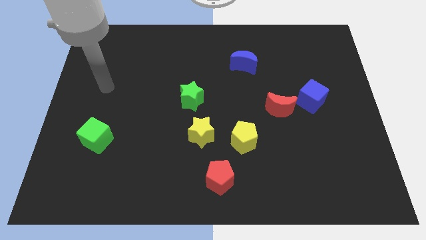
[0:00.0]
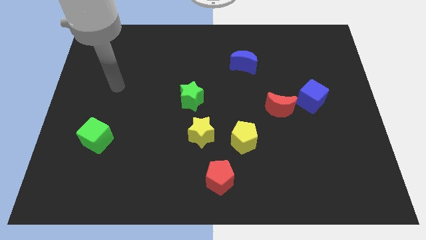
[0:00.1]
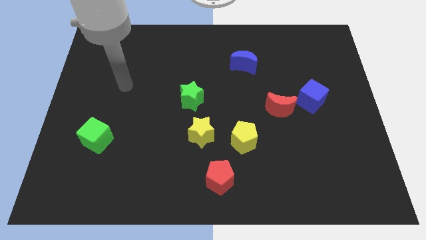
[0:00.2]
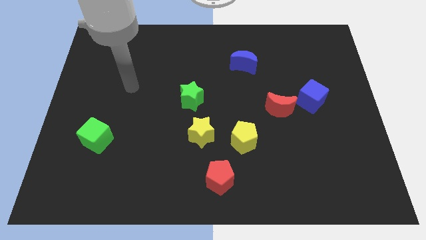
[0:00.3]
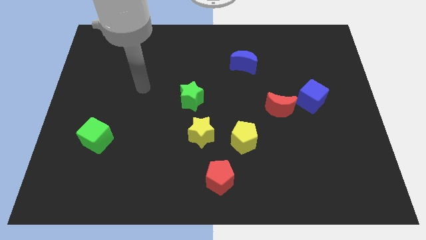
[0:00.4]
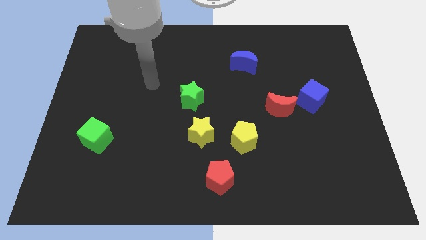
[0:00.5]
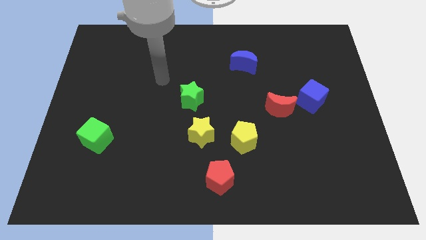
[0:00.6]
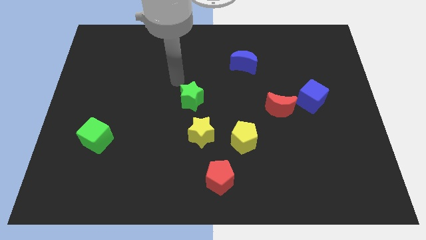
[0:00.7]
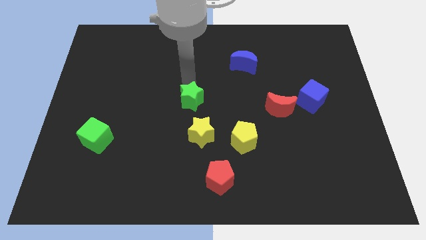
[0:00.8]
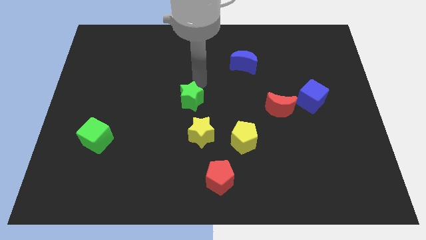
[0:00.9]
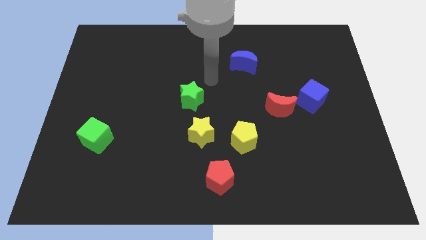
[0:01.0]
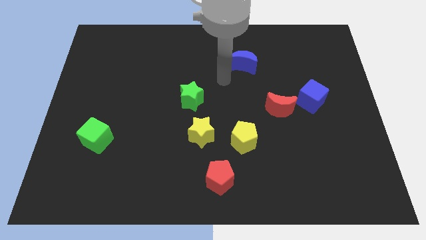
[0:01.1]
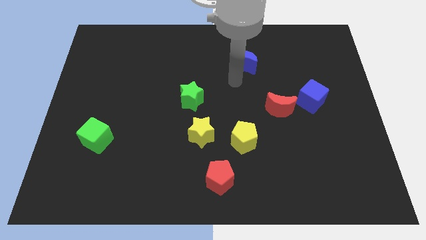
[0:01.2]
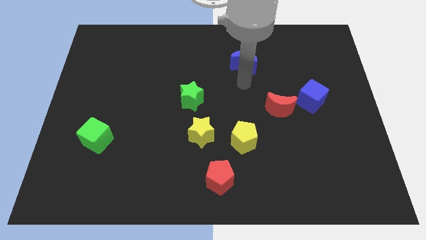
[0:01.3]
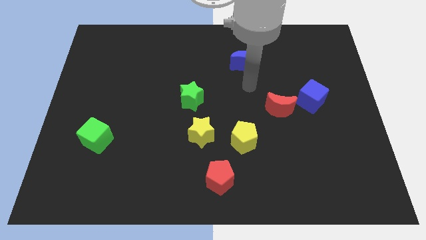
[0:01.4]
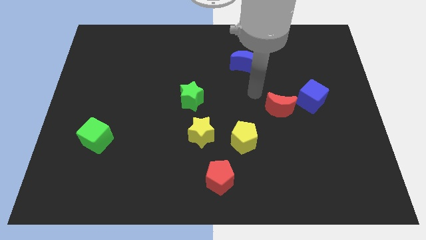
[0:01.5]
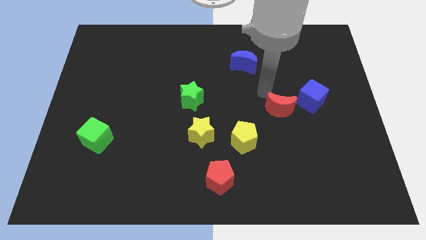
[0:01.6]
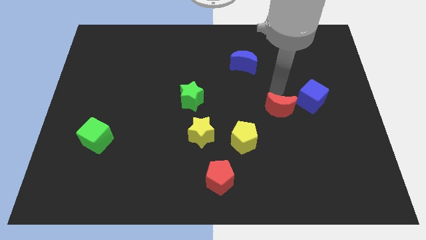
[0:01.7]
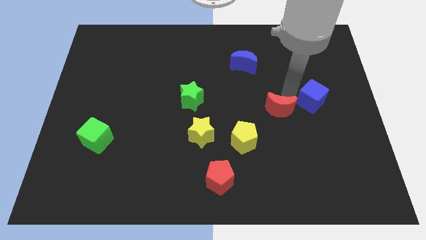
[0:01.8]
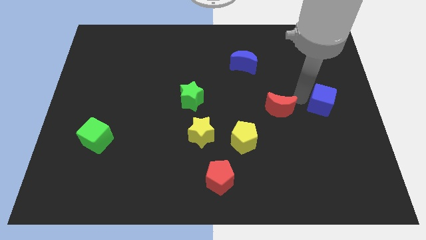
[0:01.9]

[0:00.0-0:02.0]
pull the red moon apart from the blue cube

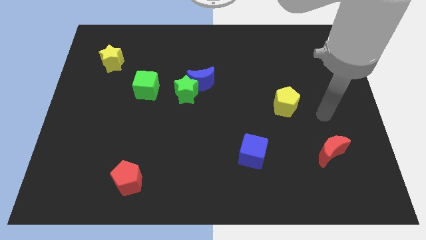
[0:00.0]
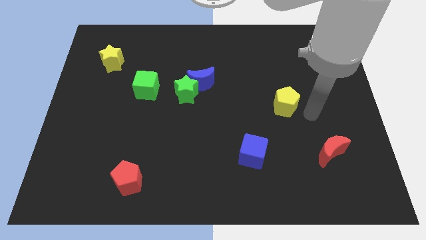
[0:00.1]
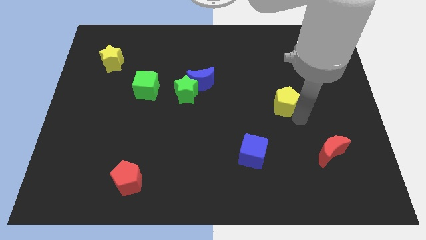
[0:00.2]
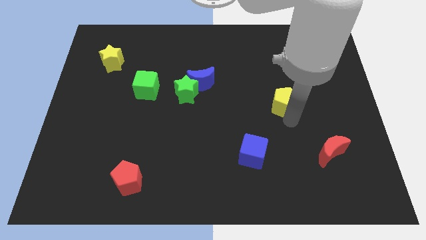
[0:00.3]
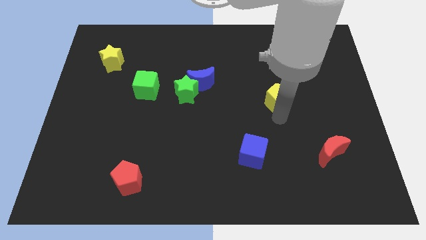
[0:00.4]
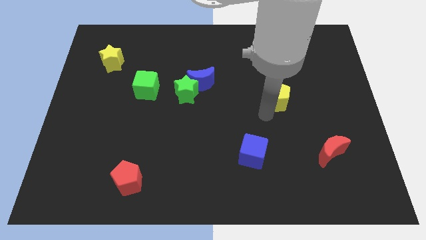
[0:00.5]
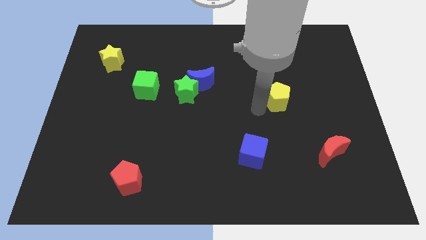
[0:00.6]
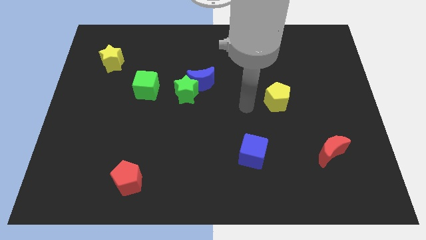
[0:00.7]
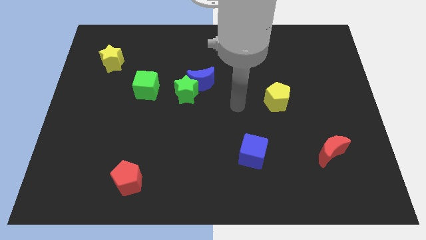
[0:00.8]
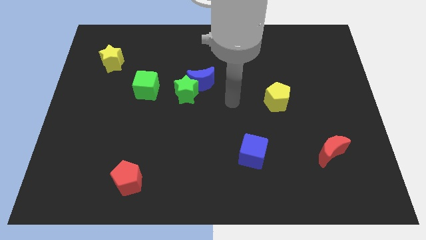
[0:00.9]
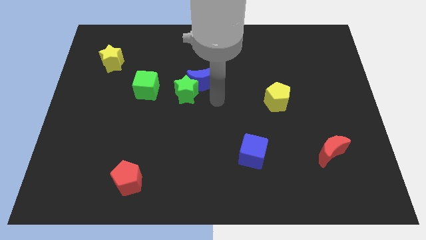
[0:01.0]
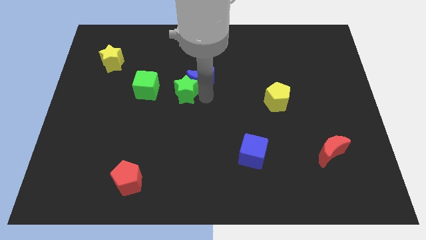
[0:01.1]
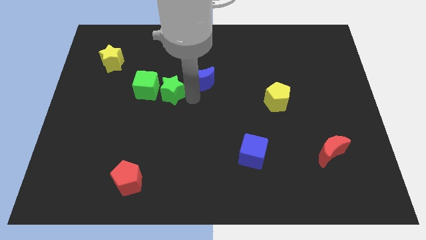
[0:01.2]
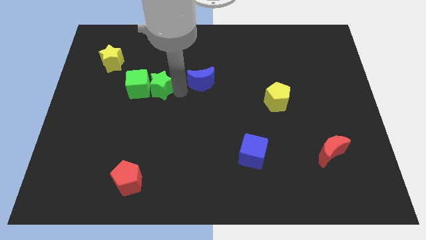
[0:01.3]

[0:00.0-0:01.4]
separate the blue moon from the green star

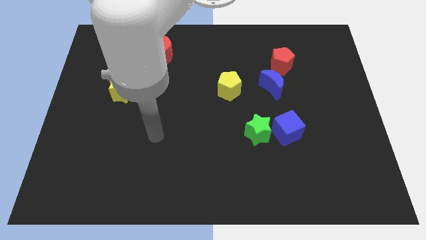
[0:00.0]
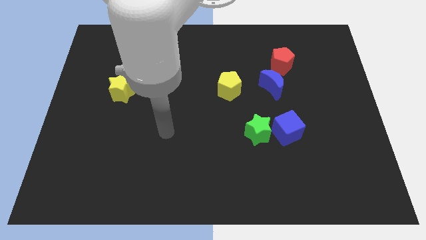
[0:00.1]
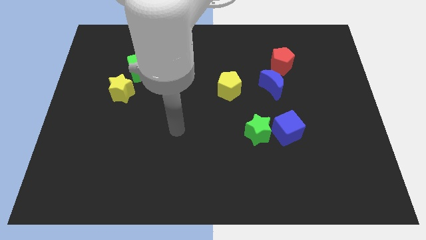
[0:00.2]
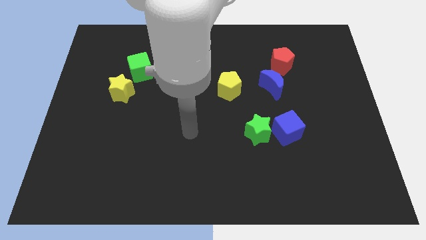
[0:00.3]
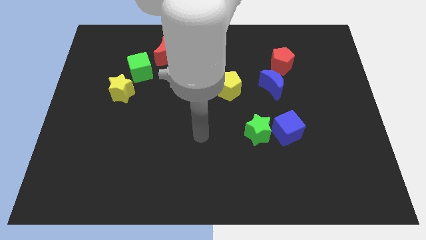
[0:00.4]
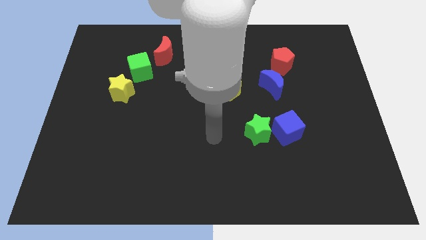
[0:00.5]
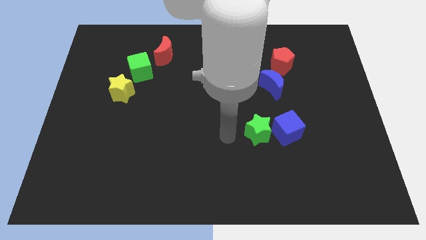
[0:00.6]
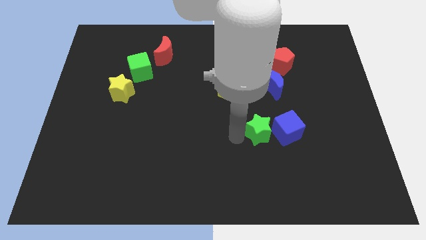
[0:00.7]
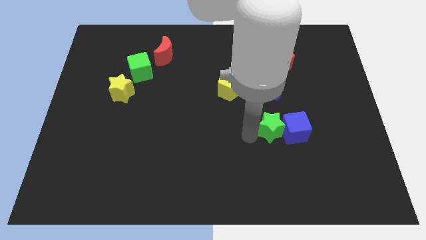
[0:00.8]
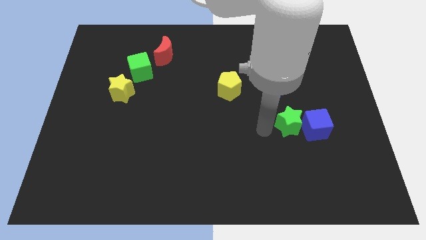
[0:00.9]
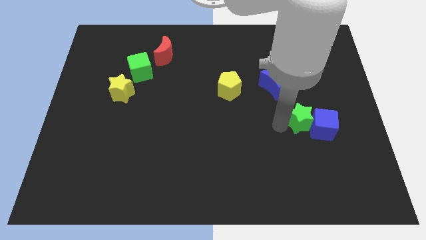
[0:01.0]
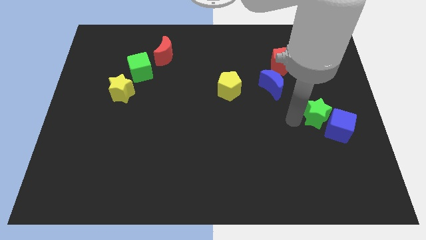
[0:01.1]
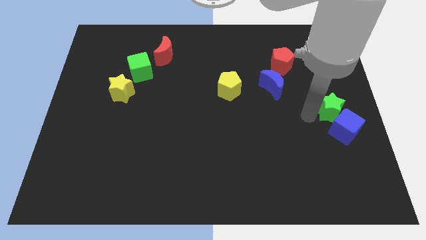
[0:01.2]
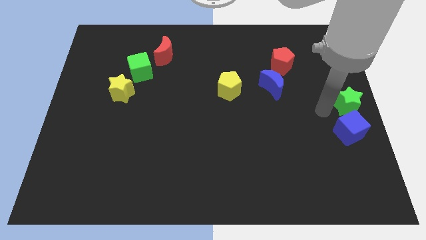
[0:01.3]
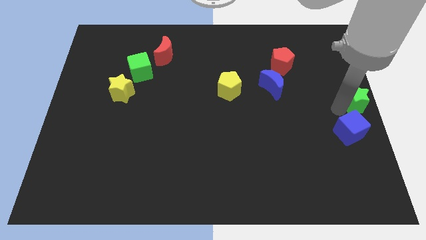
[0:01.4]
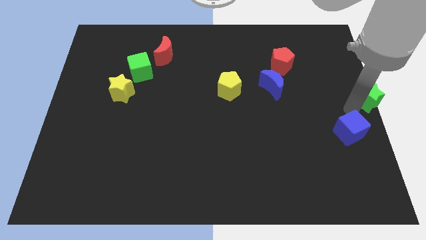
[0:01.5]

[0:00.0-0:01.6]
move the blue cube away from the green star

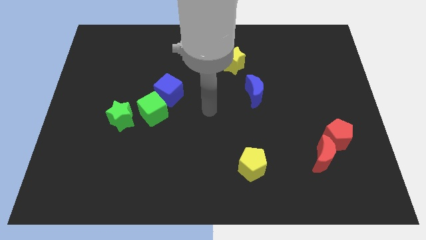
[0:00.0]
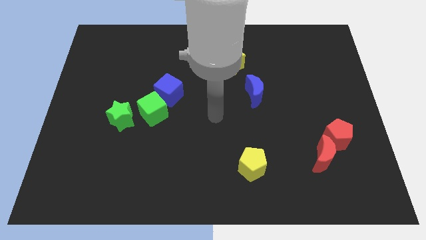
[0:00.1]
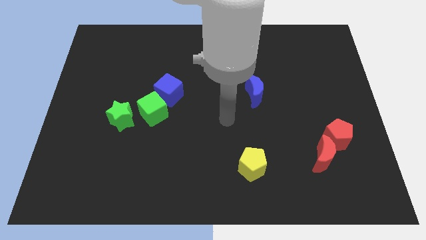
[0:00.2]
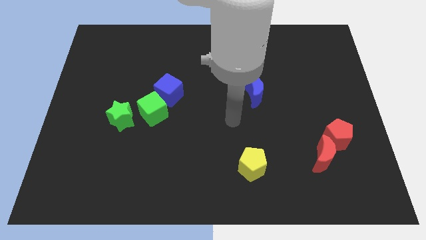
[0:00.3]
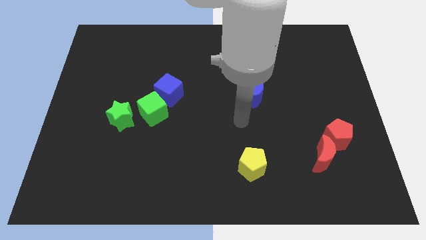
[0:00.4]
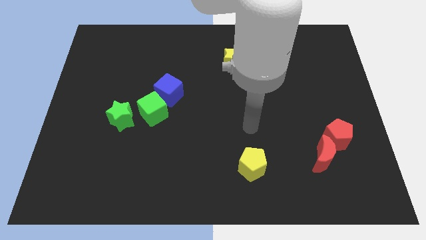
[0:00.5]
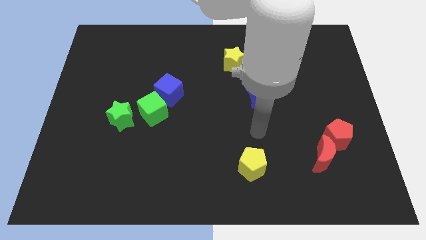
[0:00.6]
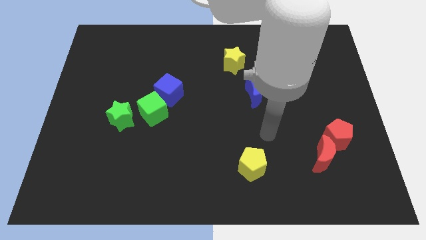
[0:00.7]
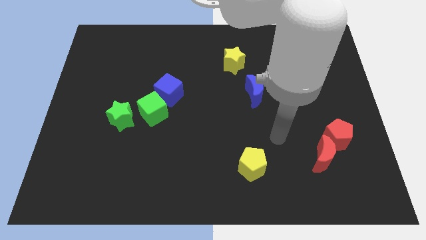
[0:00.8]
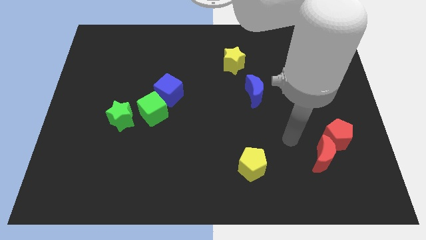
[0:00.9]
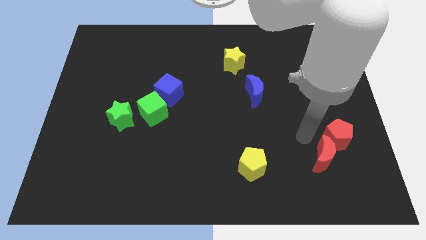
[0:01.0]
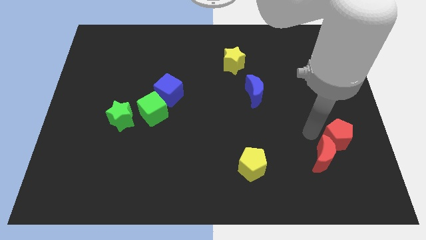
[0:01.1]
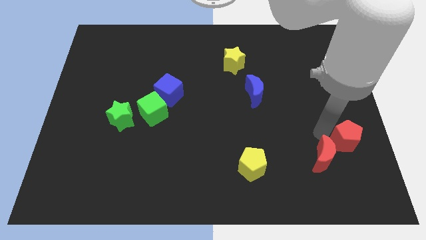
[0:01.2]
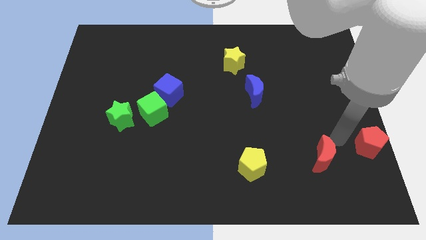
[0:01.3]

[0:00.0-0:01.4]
pull the red moon apart from the red pentagon

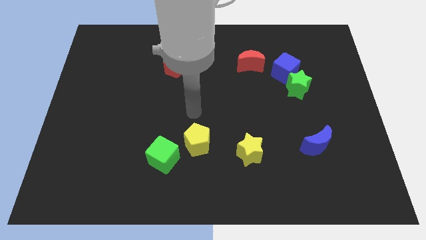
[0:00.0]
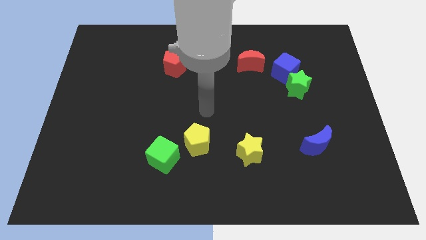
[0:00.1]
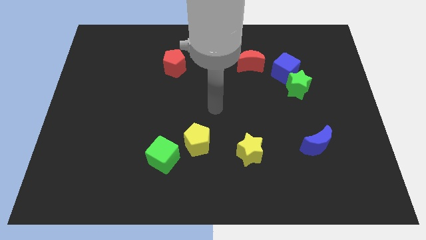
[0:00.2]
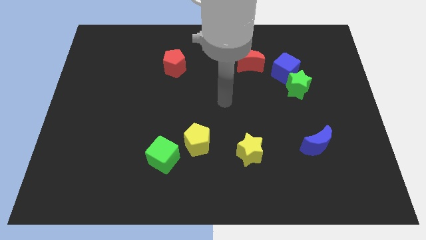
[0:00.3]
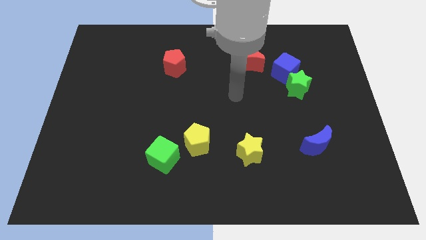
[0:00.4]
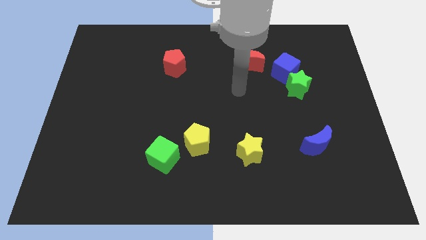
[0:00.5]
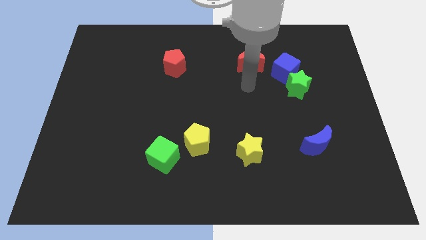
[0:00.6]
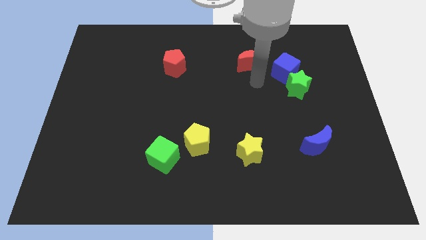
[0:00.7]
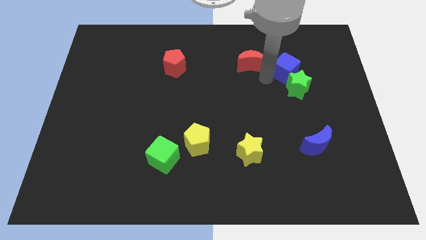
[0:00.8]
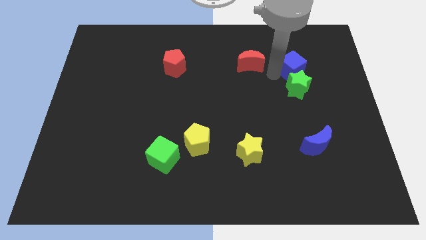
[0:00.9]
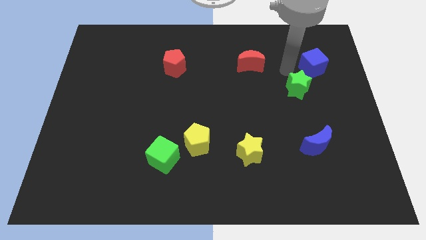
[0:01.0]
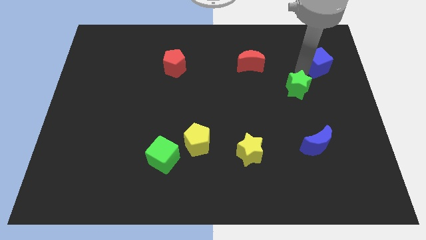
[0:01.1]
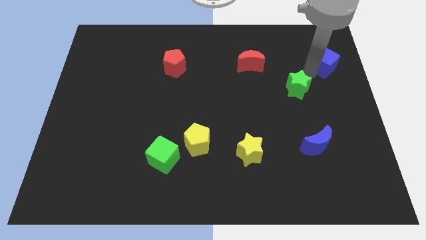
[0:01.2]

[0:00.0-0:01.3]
pull the green star apart from the blue cube

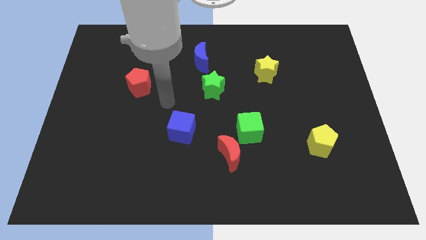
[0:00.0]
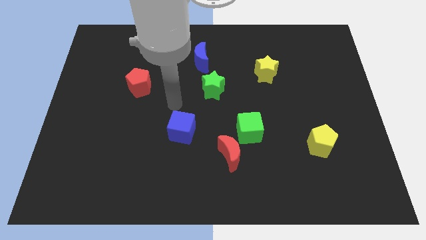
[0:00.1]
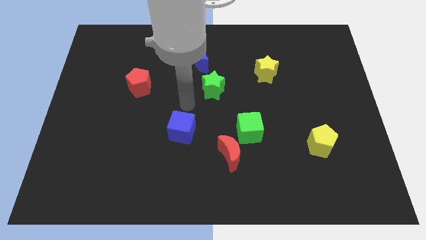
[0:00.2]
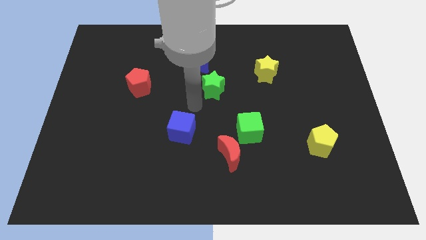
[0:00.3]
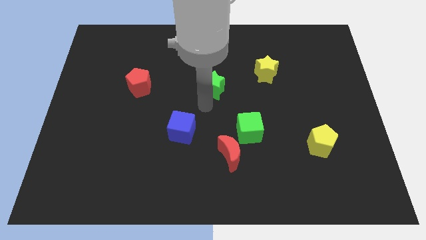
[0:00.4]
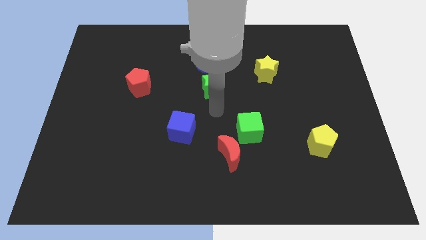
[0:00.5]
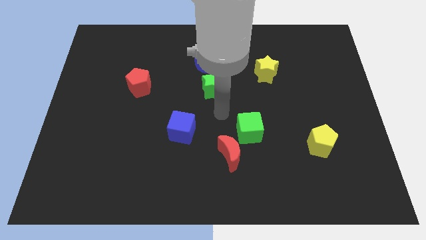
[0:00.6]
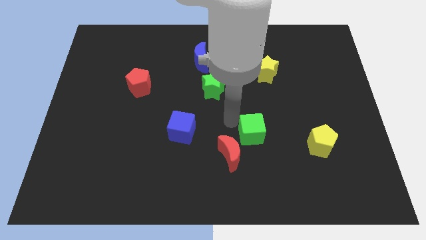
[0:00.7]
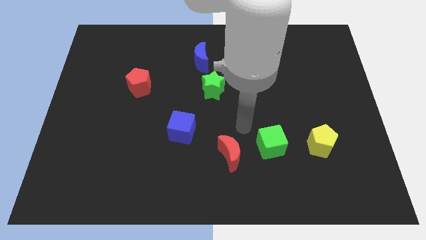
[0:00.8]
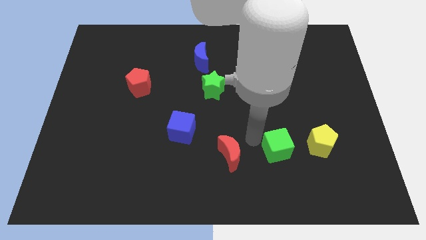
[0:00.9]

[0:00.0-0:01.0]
separate the red moon from the green cube

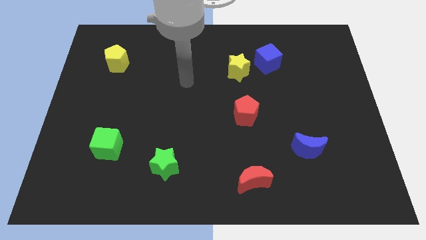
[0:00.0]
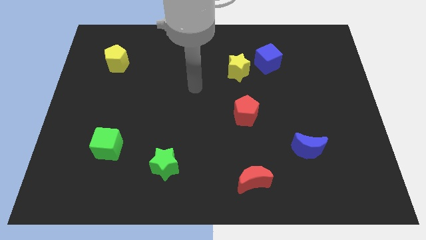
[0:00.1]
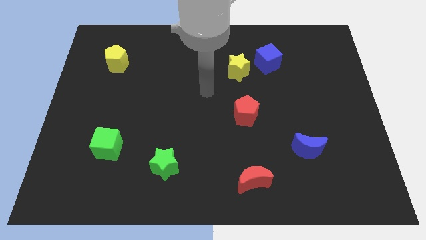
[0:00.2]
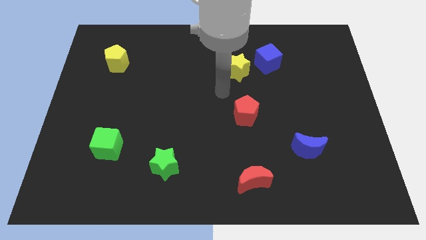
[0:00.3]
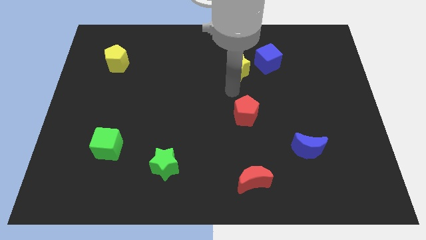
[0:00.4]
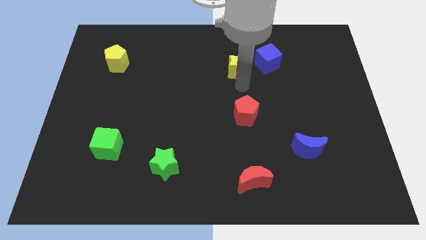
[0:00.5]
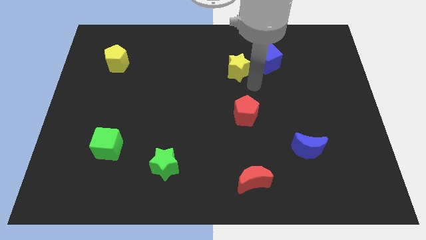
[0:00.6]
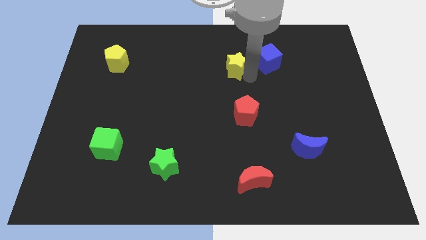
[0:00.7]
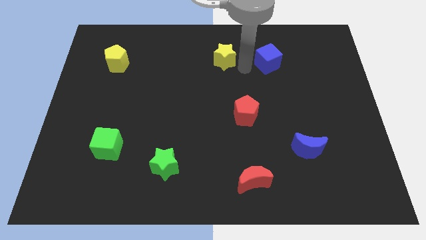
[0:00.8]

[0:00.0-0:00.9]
separate the blue cube from the yellow star
